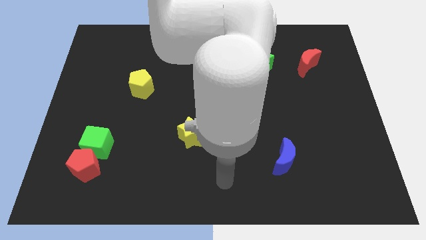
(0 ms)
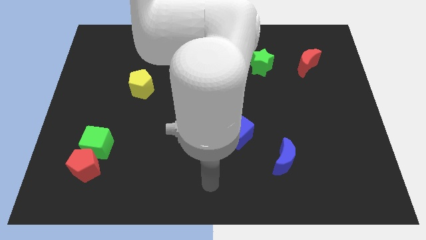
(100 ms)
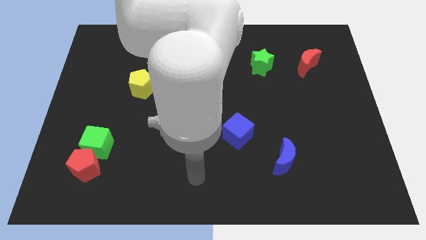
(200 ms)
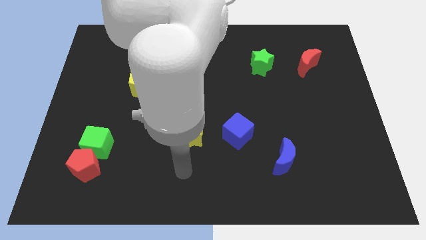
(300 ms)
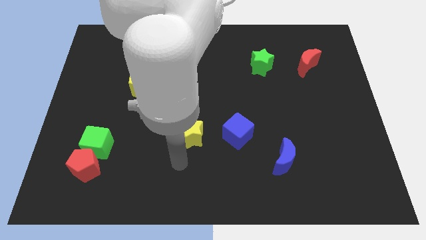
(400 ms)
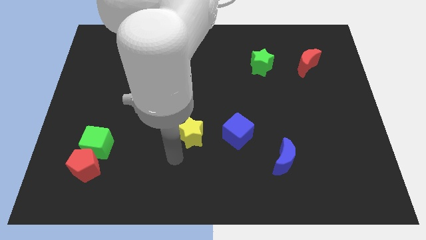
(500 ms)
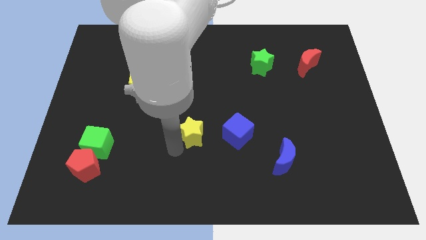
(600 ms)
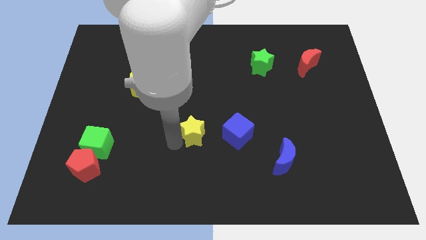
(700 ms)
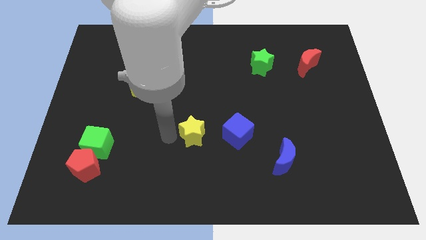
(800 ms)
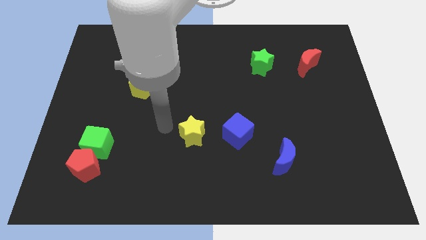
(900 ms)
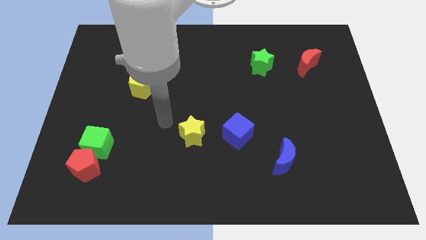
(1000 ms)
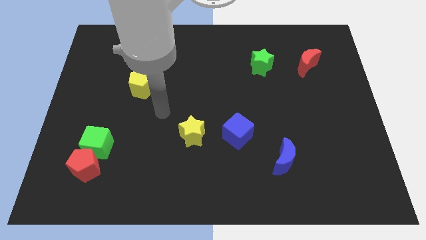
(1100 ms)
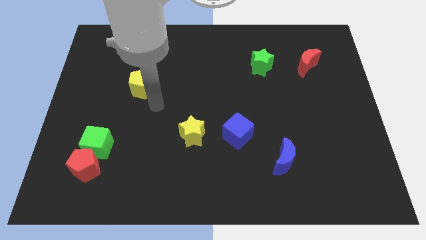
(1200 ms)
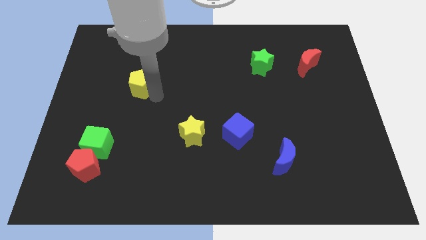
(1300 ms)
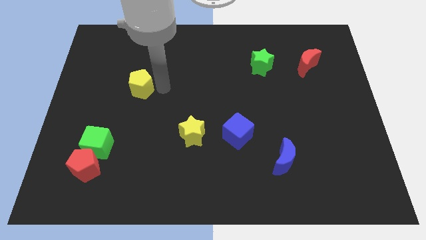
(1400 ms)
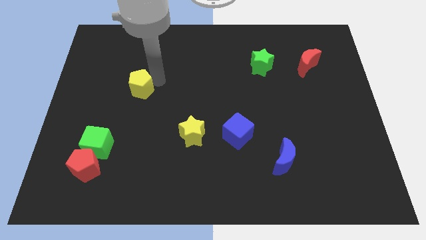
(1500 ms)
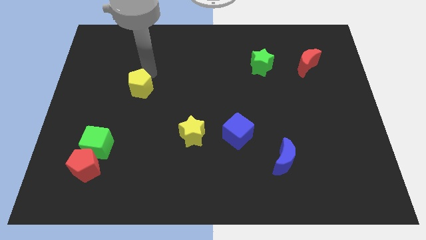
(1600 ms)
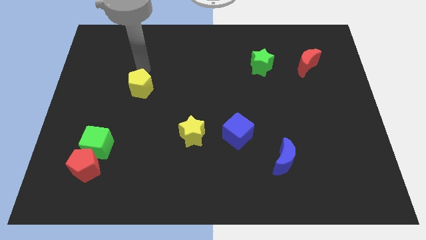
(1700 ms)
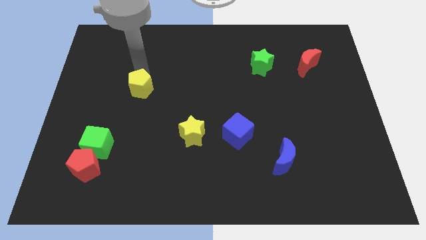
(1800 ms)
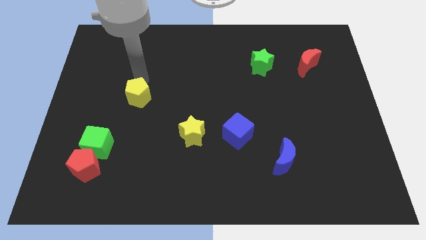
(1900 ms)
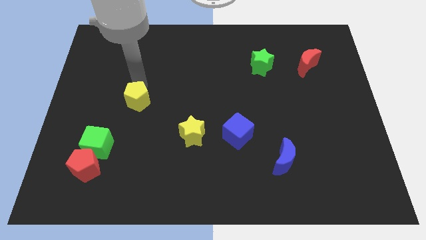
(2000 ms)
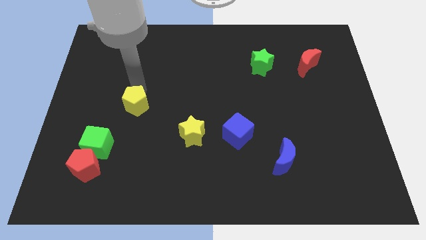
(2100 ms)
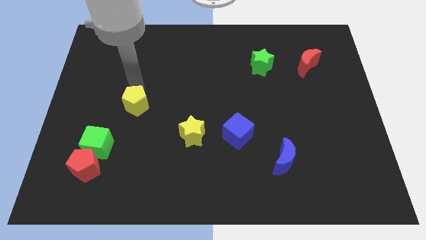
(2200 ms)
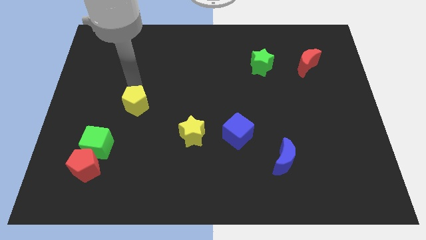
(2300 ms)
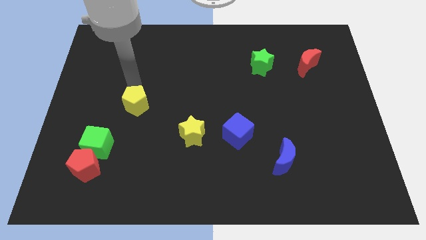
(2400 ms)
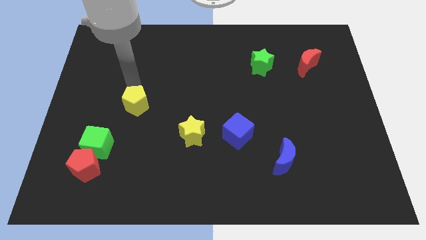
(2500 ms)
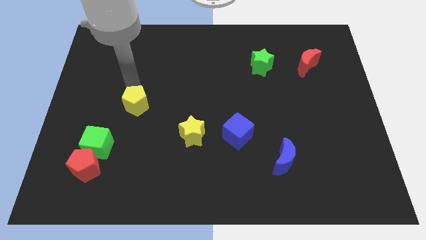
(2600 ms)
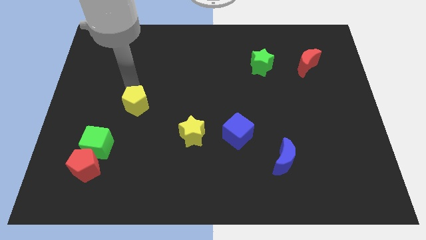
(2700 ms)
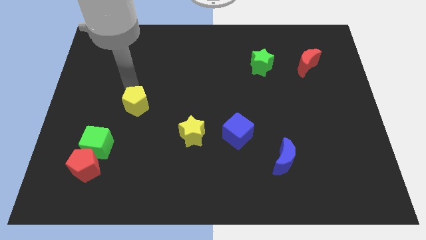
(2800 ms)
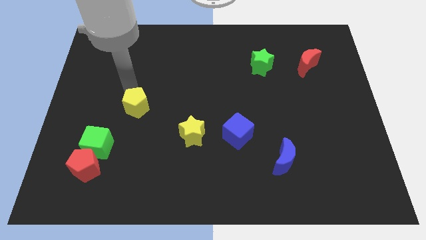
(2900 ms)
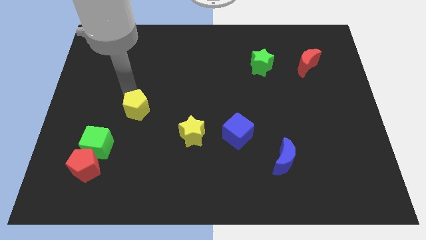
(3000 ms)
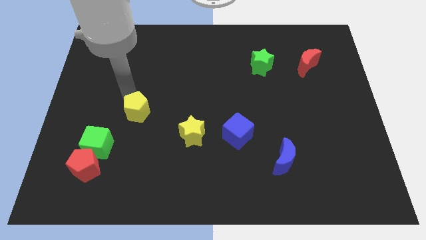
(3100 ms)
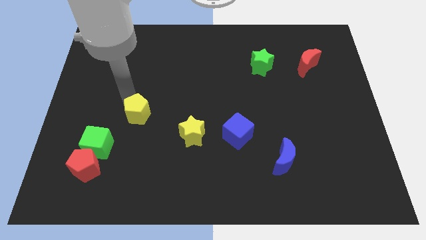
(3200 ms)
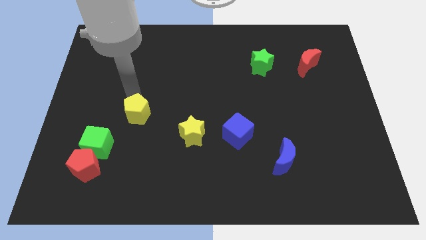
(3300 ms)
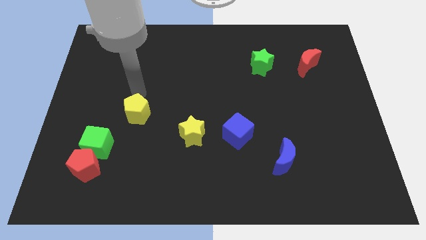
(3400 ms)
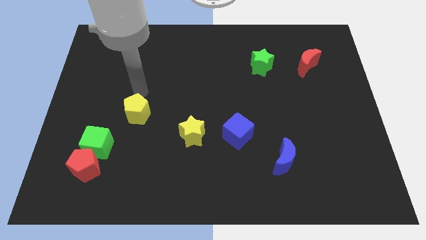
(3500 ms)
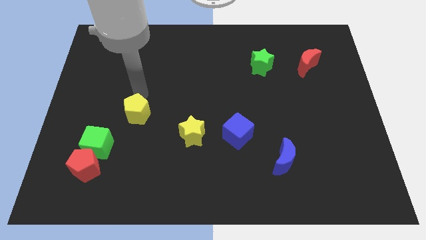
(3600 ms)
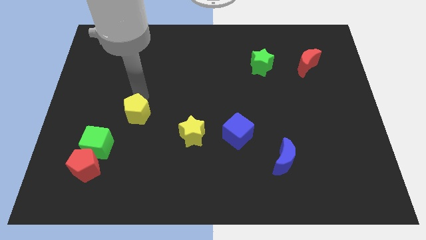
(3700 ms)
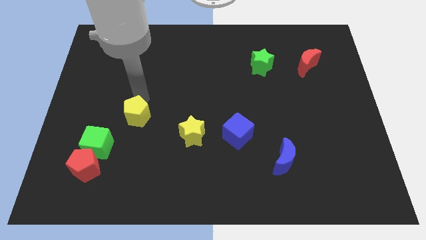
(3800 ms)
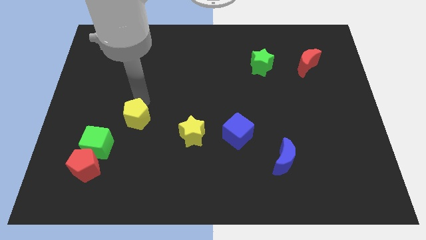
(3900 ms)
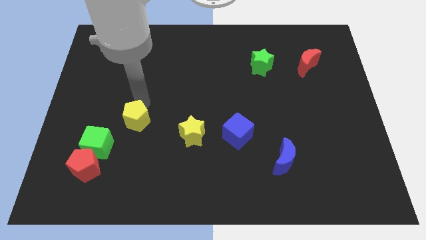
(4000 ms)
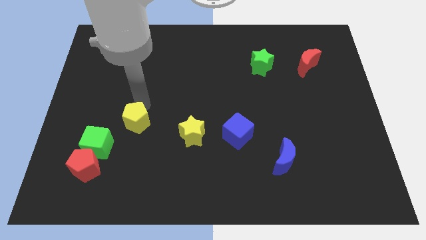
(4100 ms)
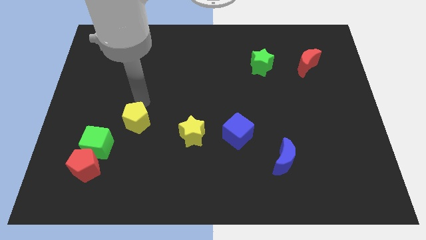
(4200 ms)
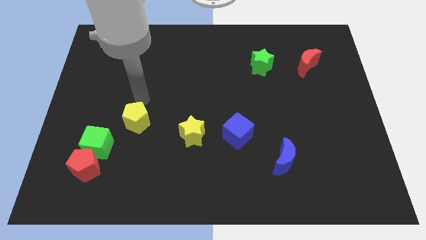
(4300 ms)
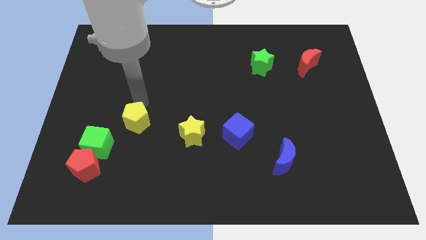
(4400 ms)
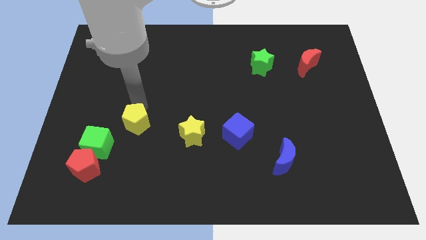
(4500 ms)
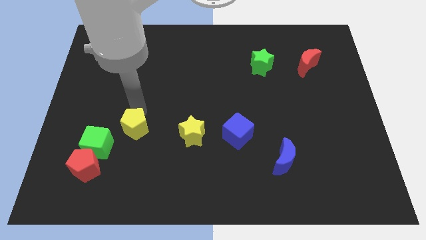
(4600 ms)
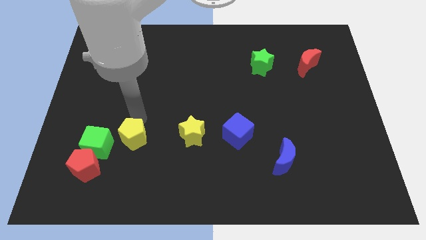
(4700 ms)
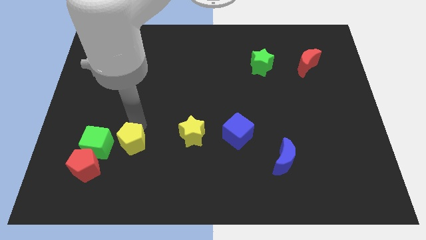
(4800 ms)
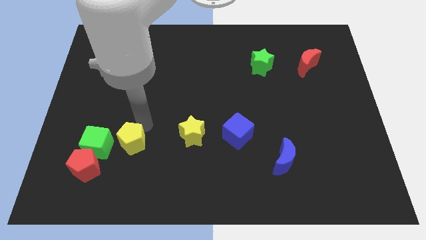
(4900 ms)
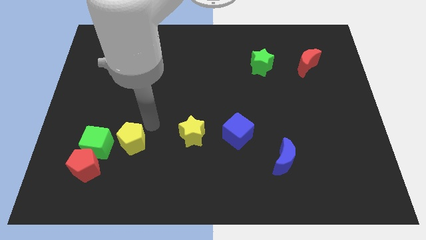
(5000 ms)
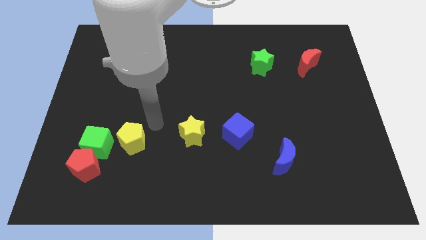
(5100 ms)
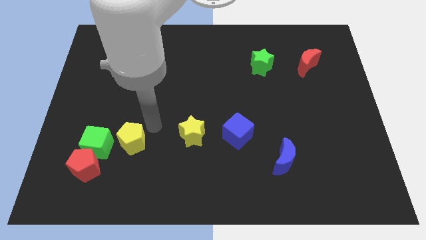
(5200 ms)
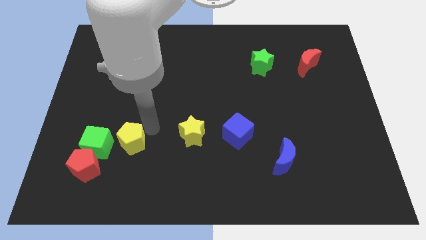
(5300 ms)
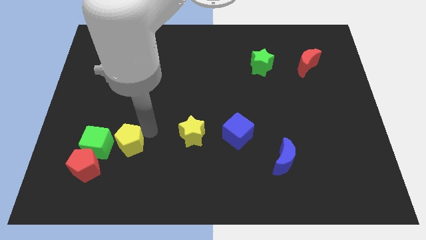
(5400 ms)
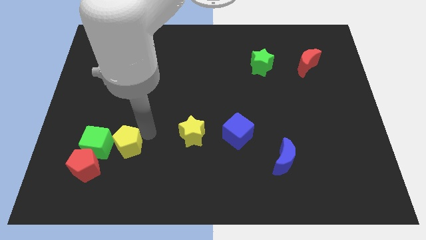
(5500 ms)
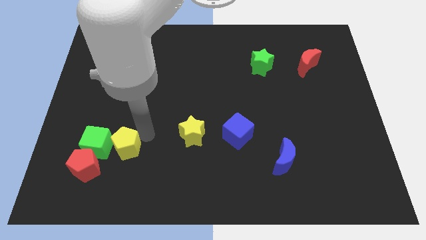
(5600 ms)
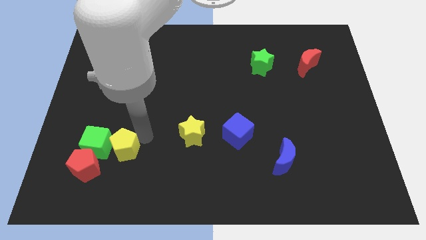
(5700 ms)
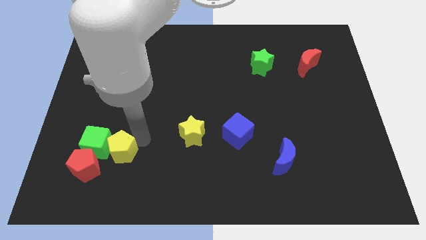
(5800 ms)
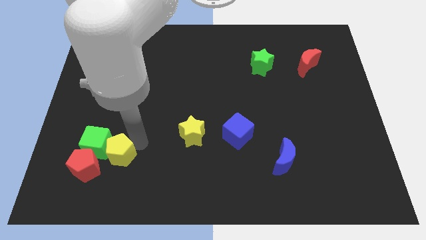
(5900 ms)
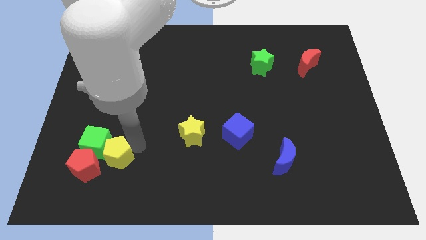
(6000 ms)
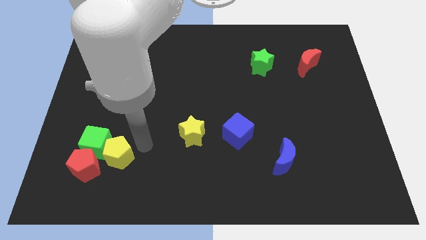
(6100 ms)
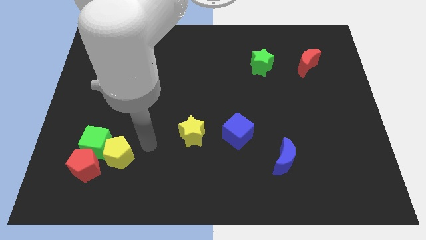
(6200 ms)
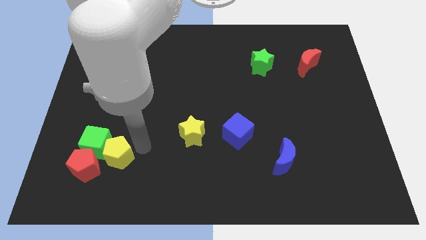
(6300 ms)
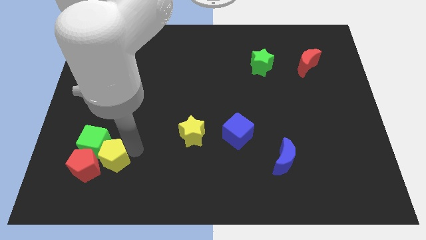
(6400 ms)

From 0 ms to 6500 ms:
slide the yellow pentagon next to the red pentagon
